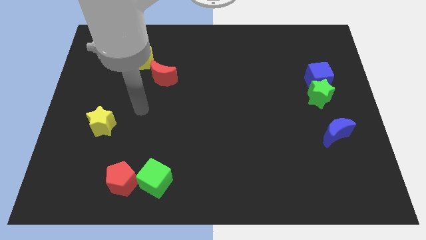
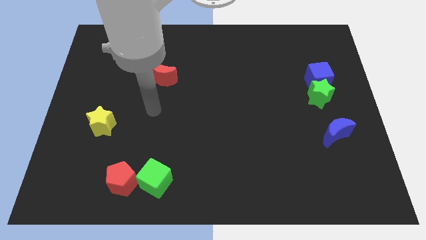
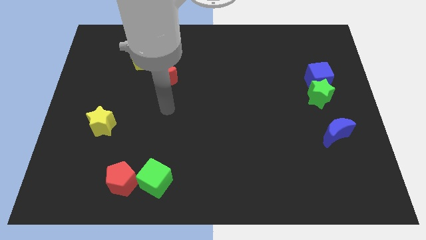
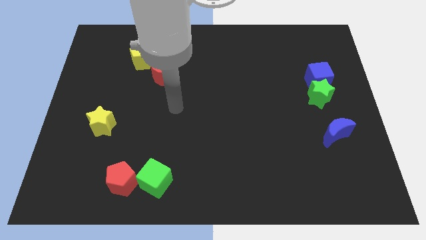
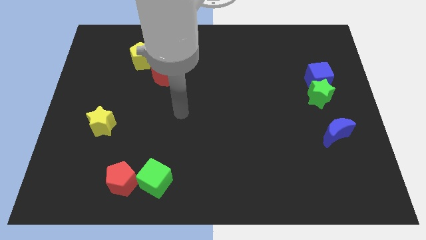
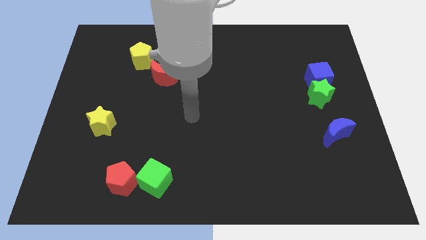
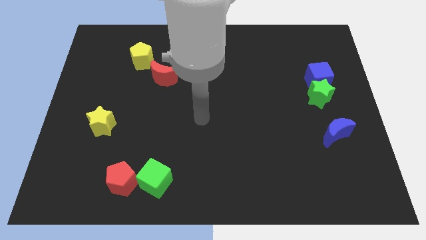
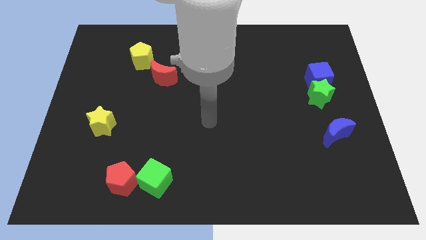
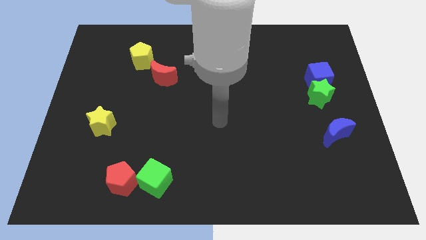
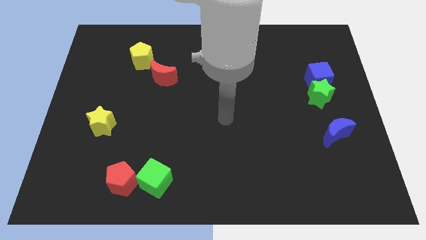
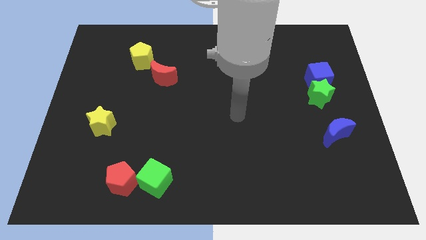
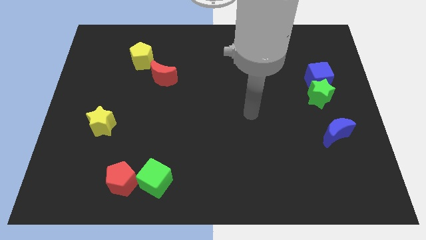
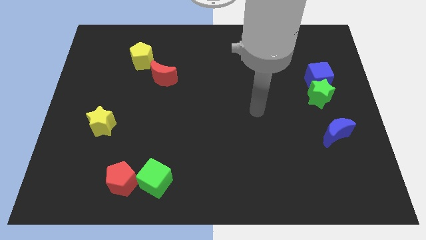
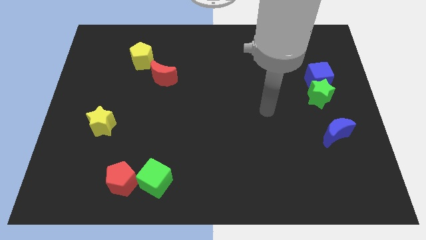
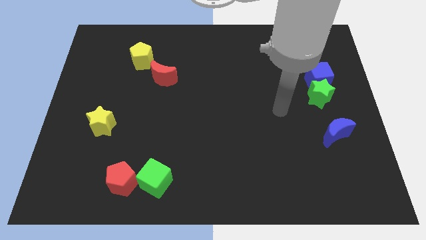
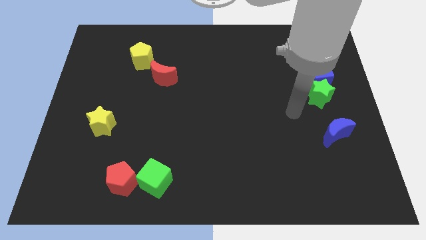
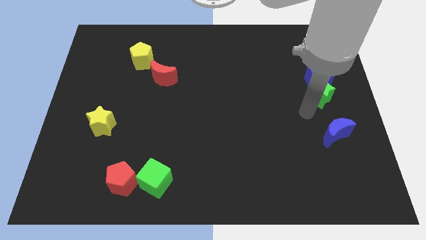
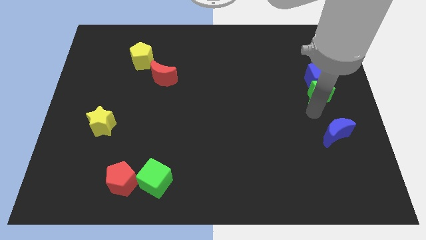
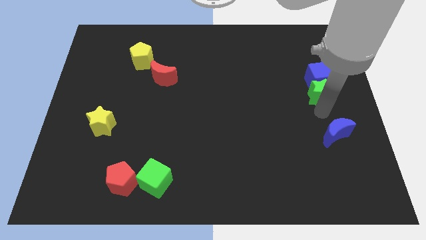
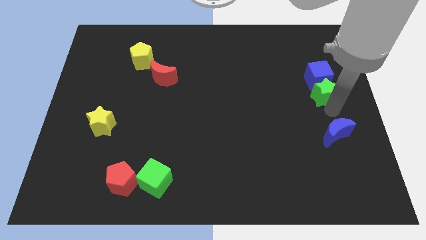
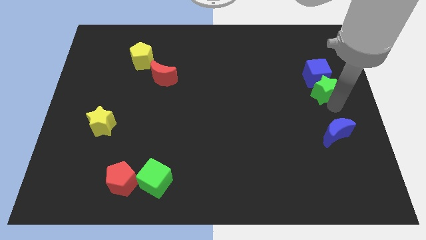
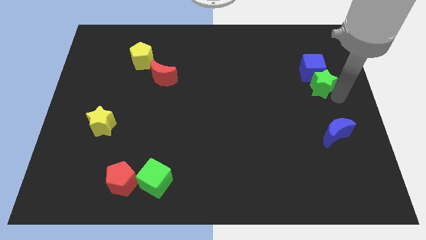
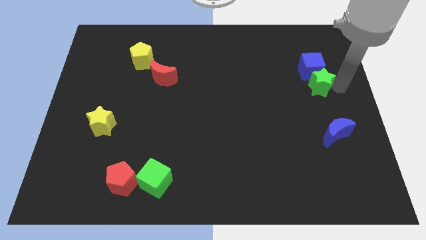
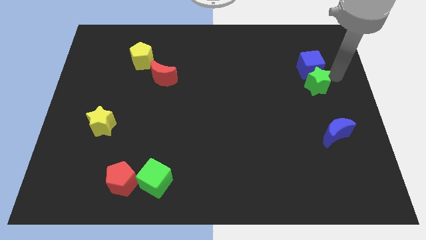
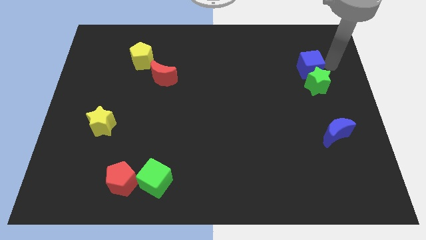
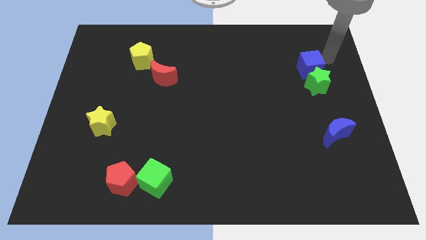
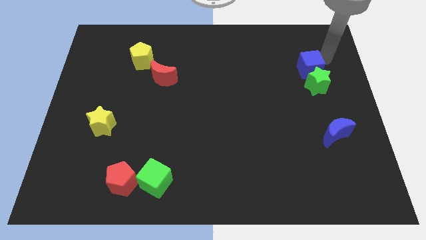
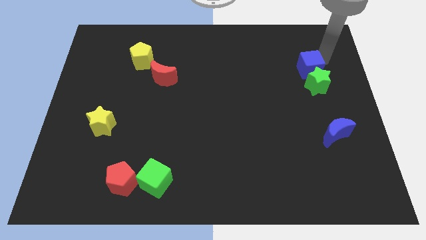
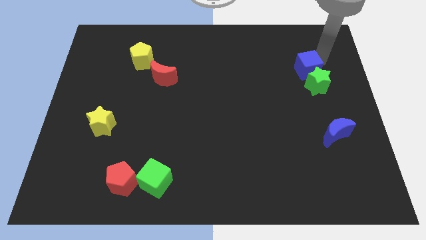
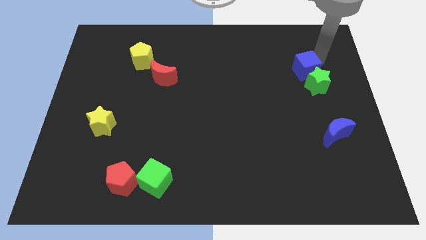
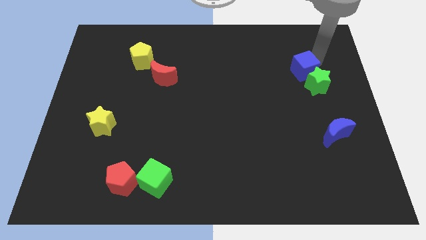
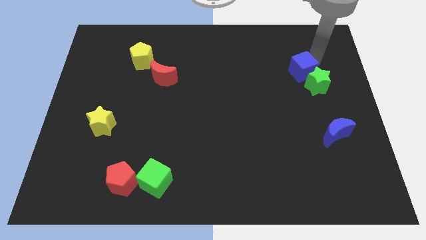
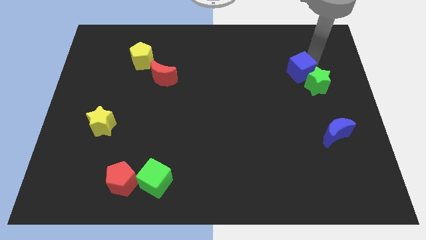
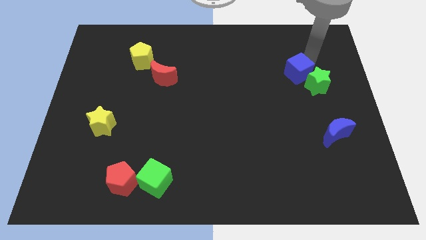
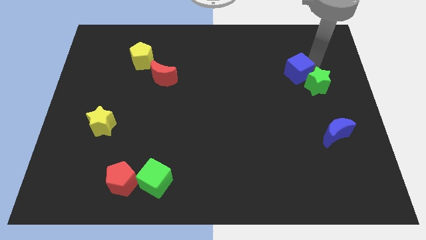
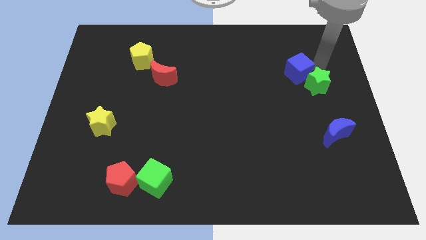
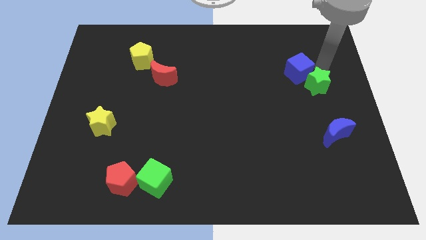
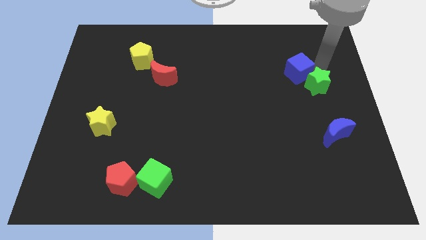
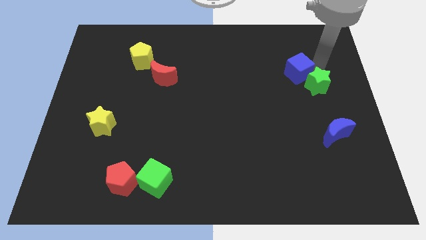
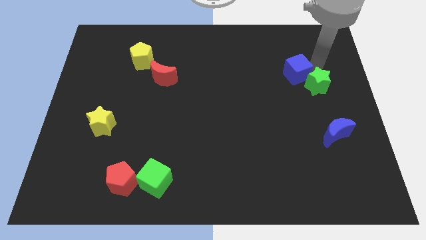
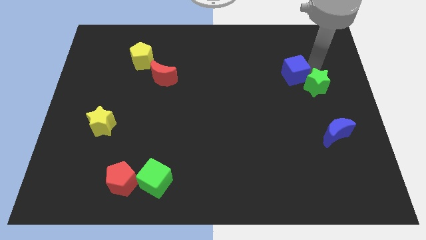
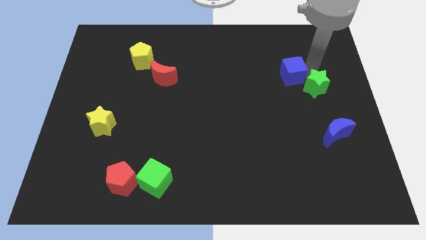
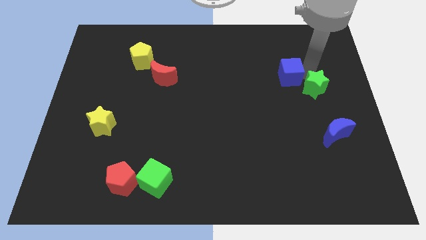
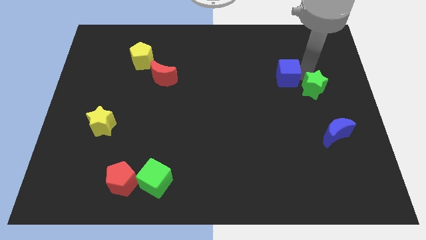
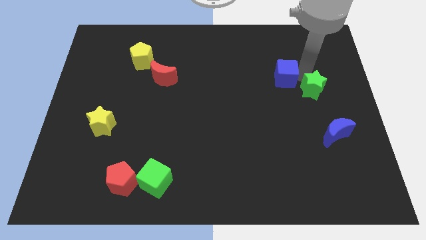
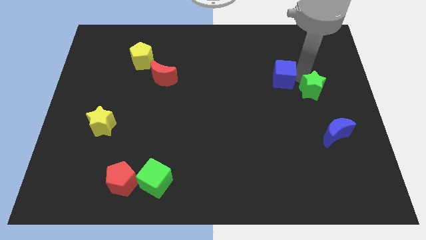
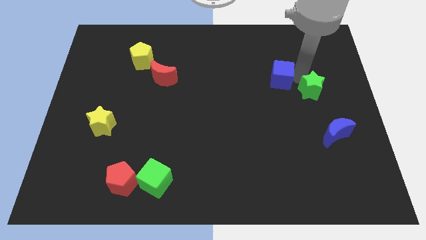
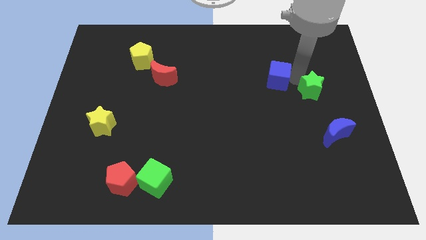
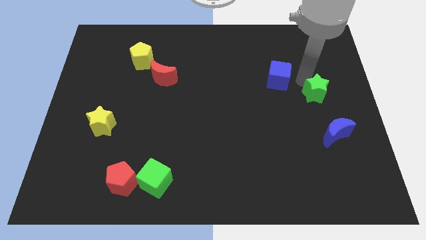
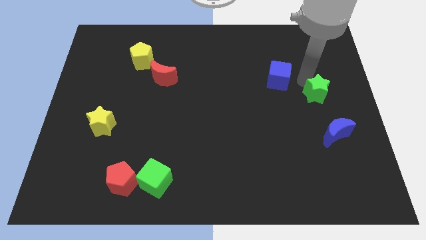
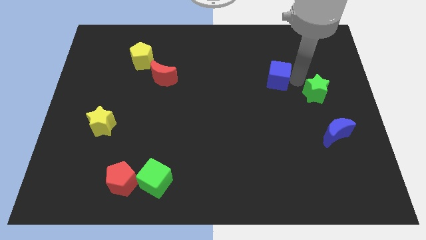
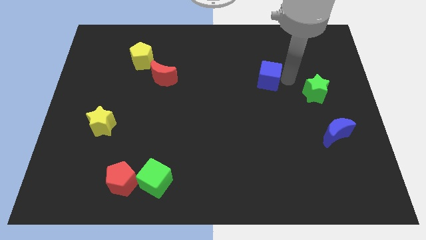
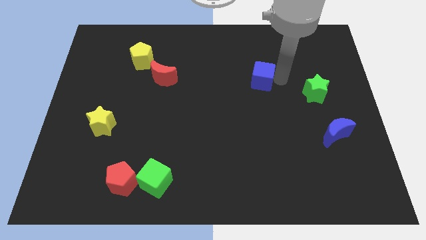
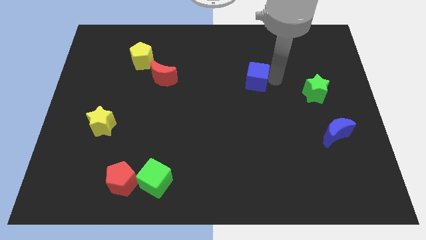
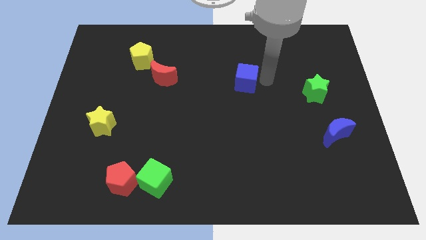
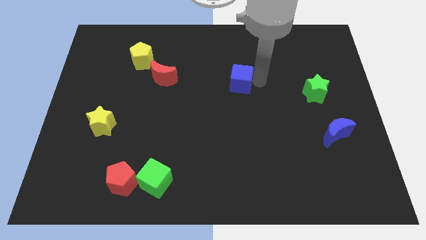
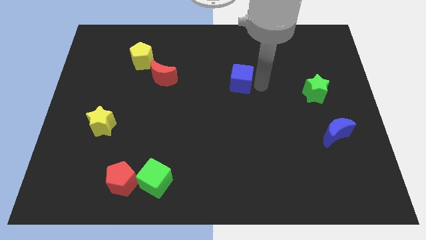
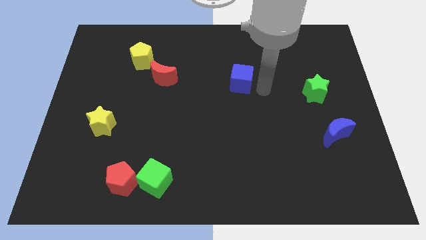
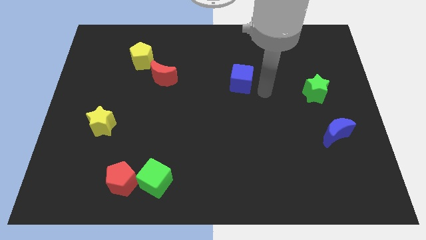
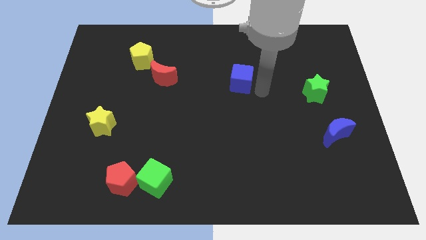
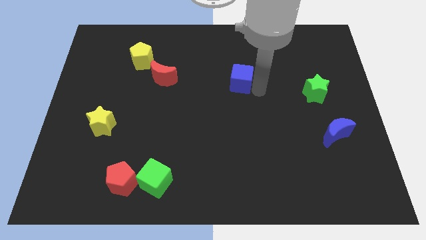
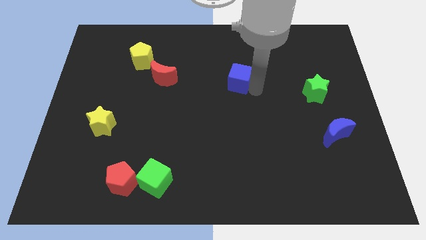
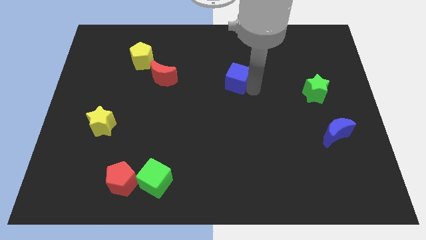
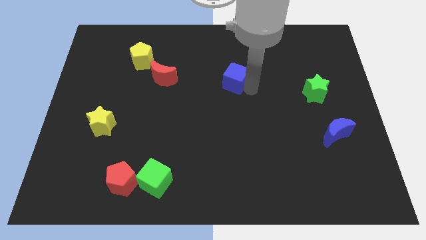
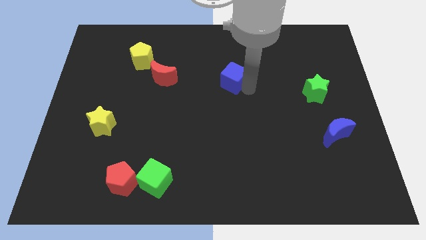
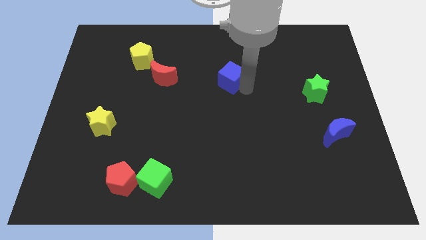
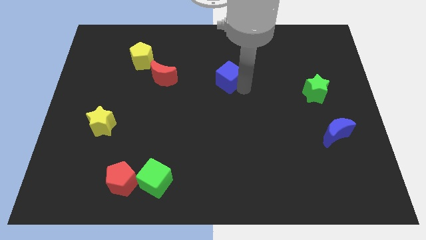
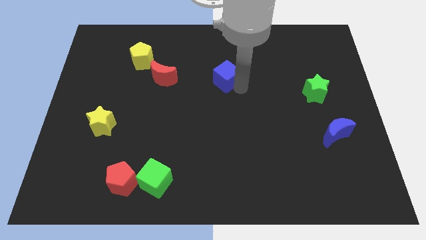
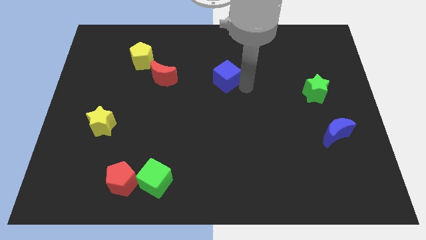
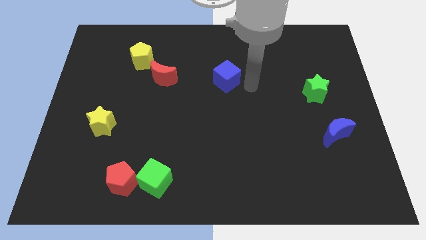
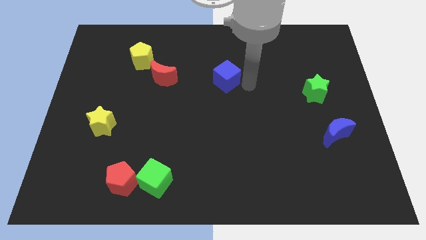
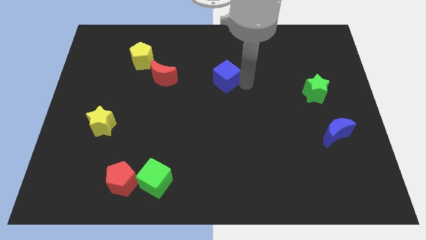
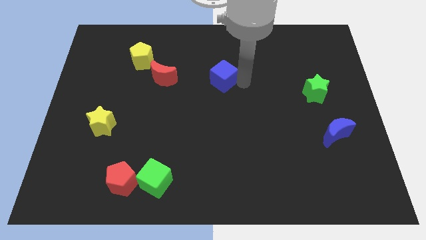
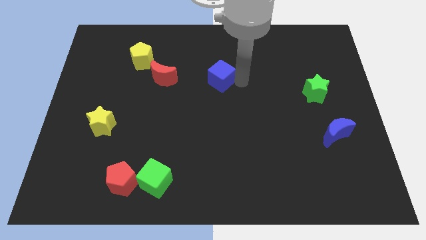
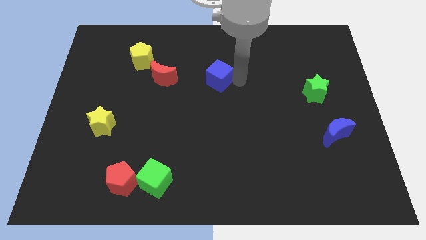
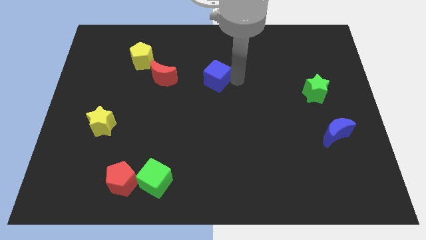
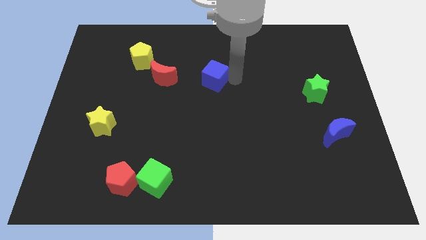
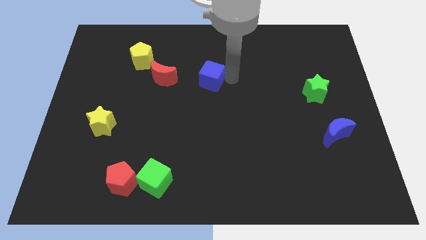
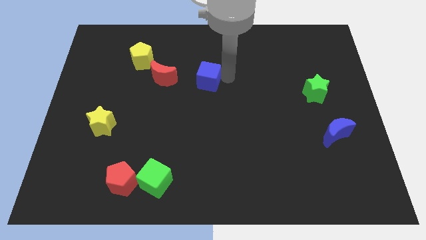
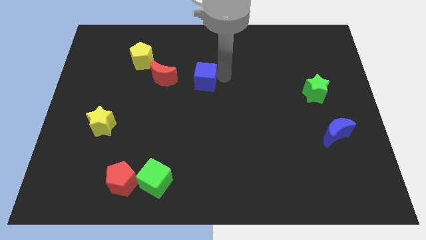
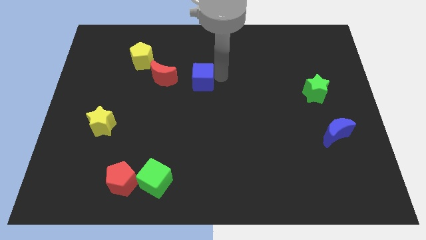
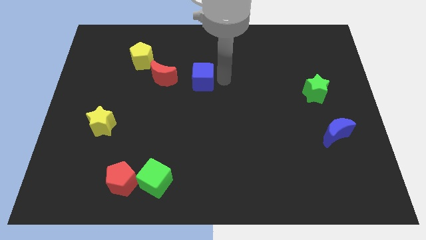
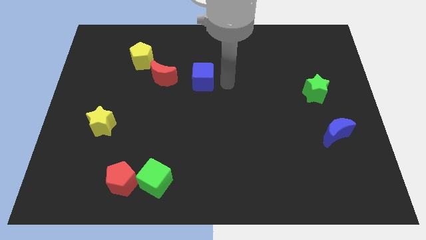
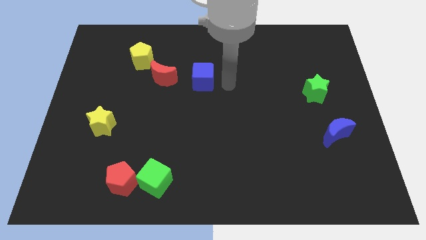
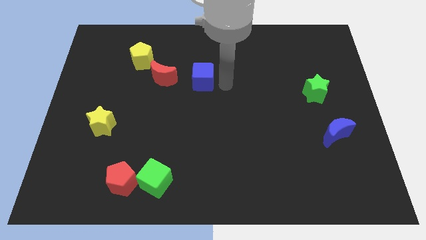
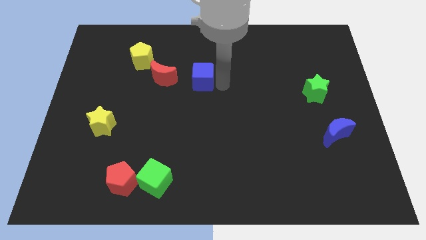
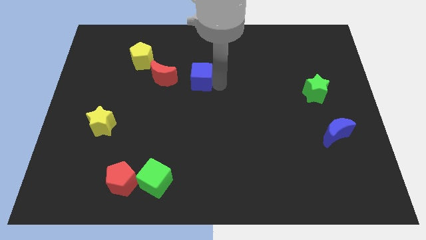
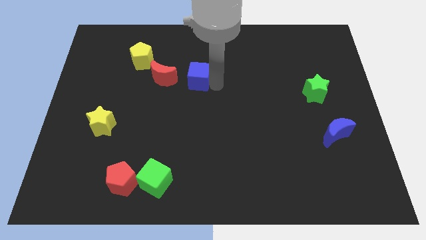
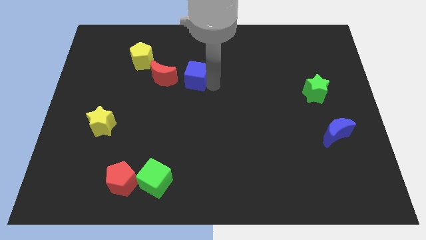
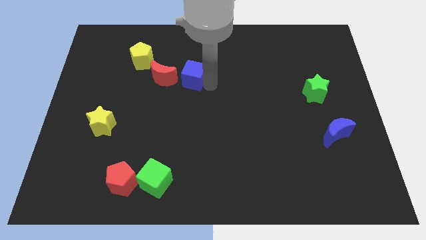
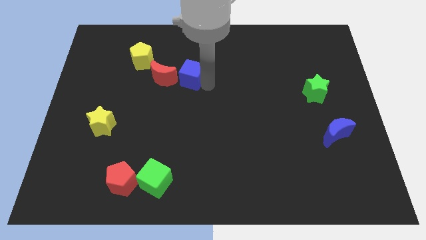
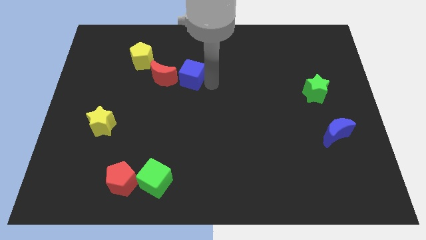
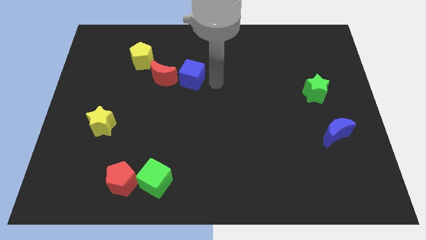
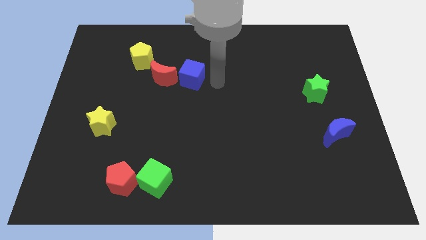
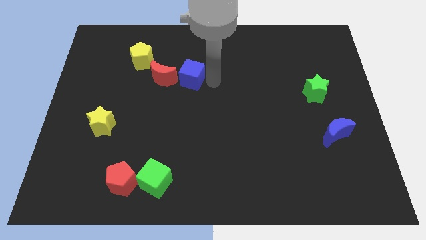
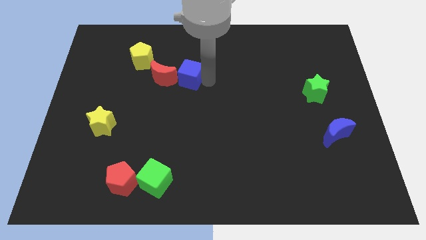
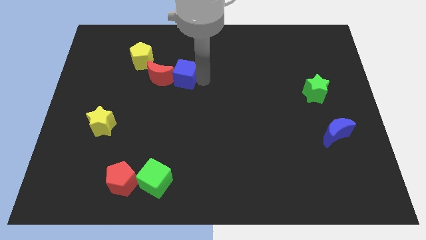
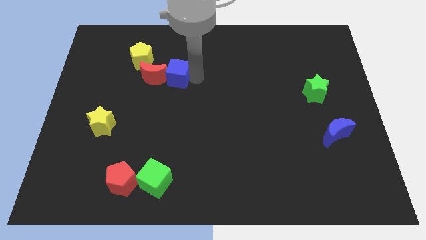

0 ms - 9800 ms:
slide the blue cube next to the red moon
